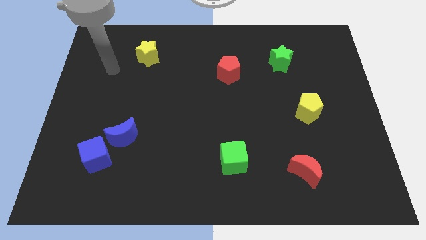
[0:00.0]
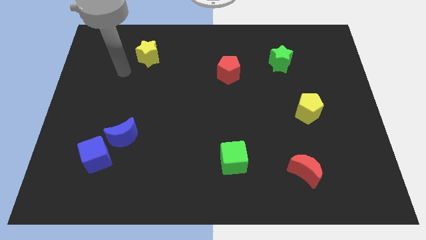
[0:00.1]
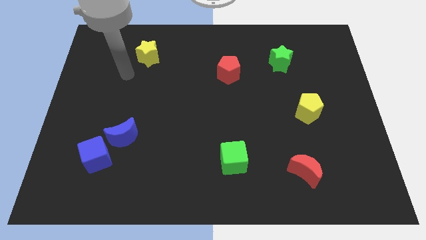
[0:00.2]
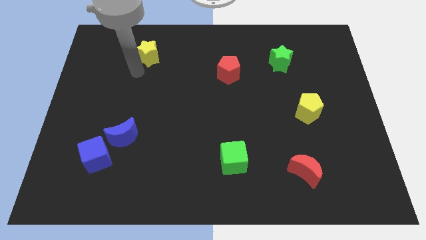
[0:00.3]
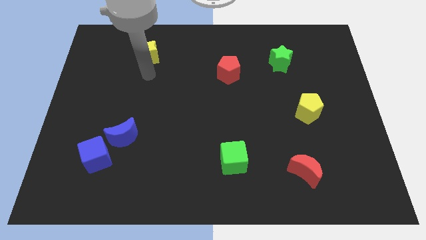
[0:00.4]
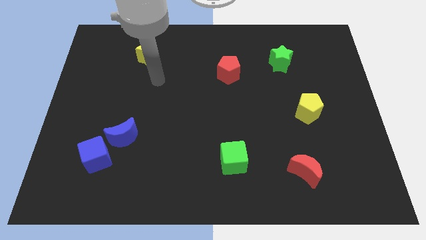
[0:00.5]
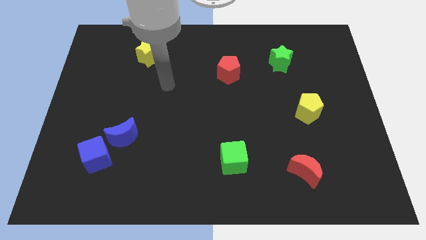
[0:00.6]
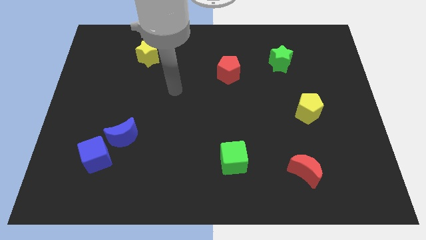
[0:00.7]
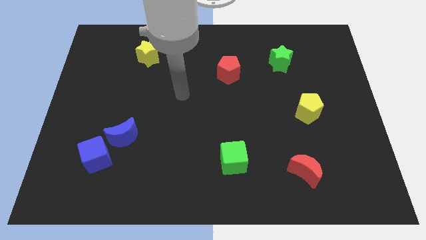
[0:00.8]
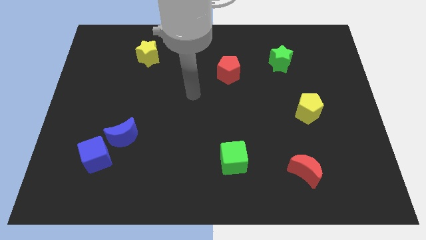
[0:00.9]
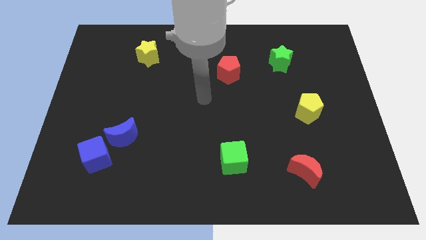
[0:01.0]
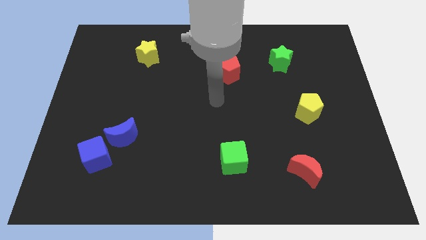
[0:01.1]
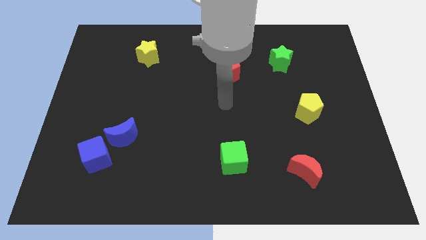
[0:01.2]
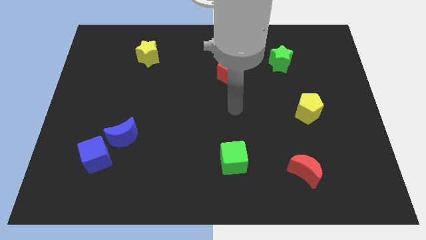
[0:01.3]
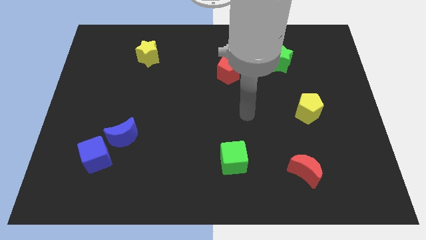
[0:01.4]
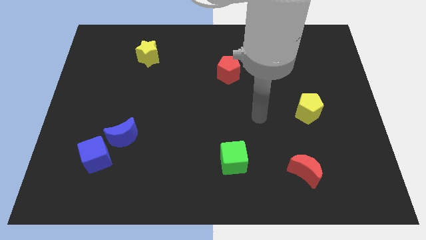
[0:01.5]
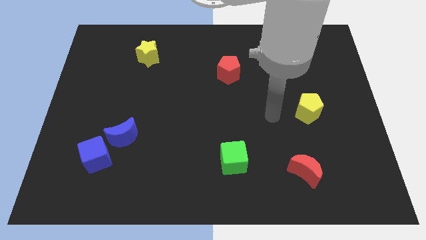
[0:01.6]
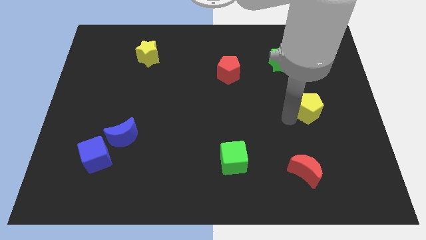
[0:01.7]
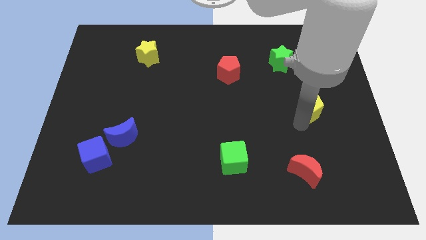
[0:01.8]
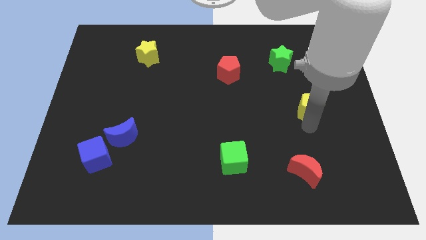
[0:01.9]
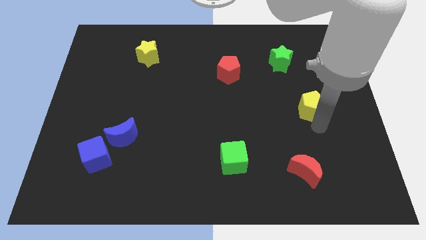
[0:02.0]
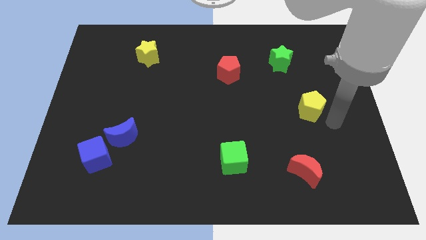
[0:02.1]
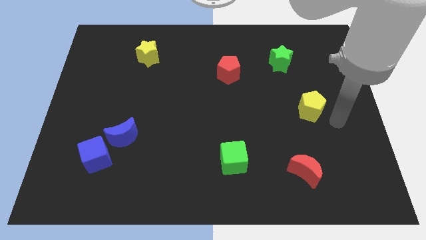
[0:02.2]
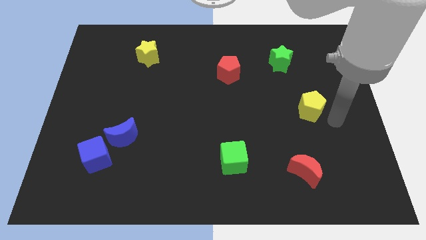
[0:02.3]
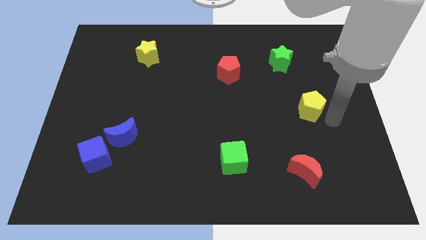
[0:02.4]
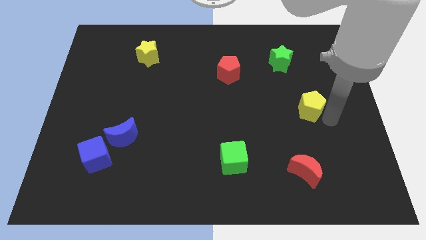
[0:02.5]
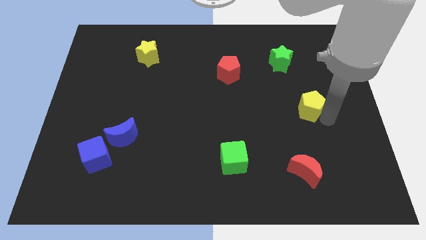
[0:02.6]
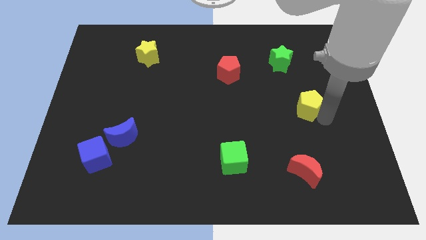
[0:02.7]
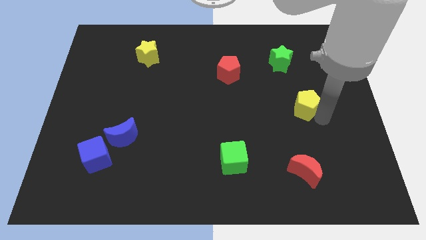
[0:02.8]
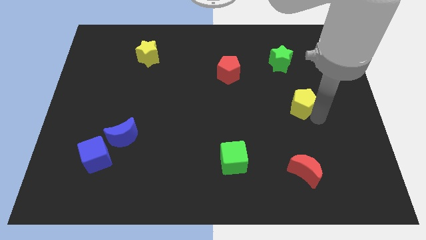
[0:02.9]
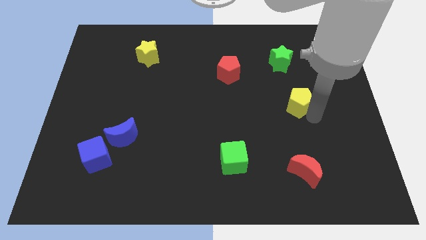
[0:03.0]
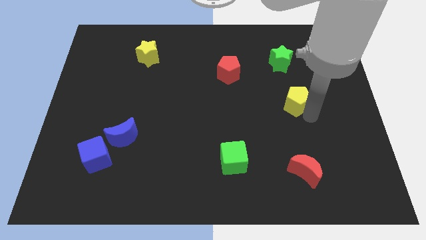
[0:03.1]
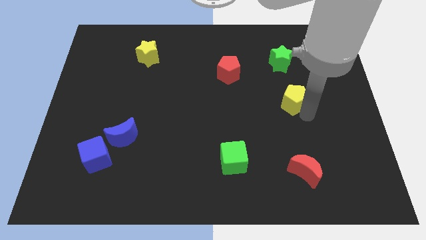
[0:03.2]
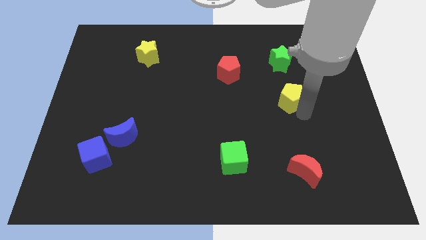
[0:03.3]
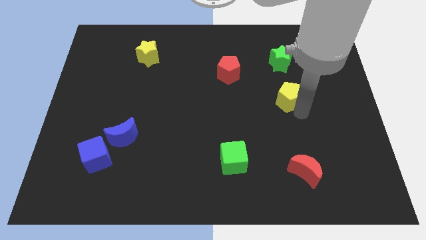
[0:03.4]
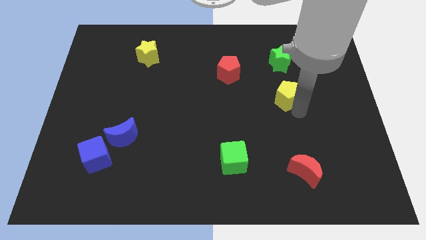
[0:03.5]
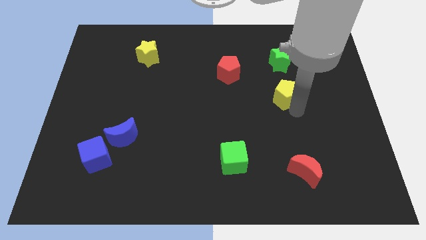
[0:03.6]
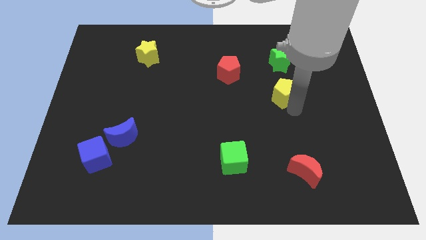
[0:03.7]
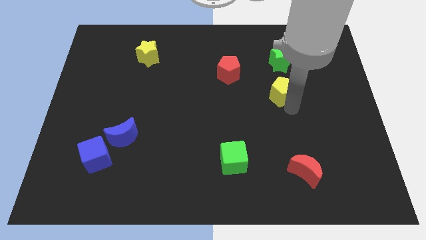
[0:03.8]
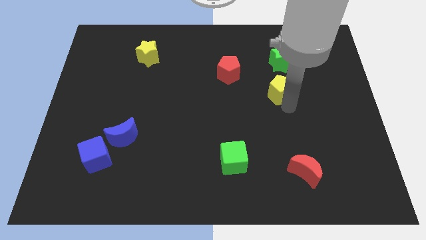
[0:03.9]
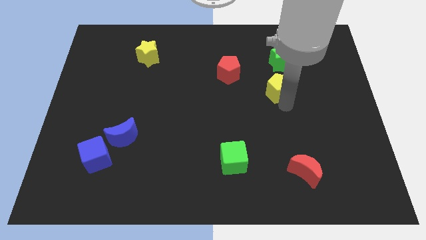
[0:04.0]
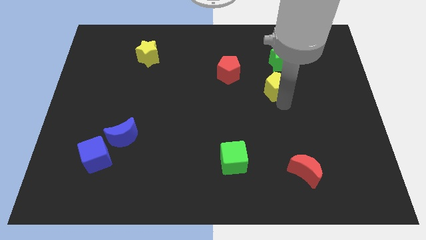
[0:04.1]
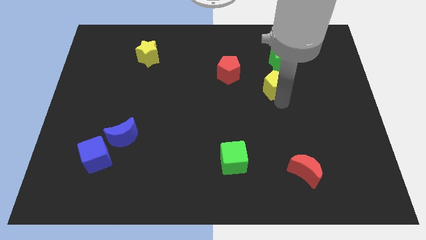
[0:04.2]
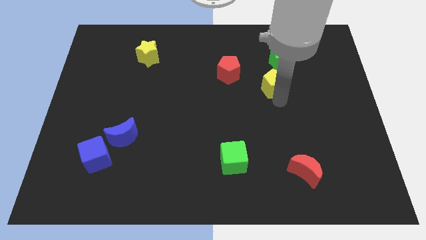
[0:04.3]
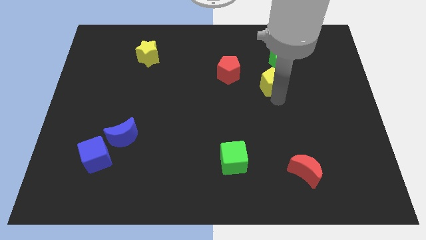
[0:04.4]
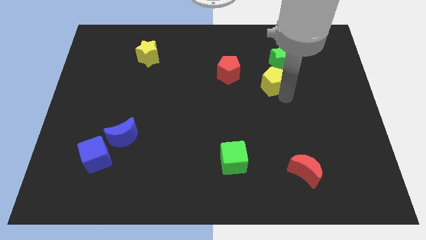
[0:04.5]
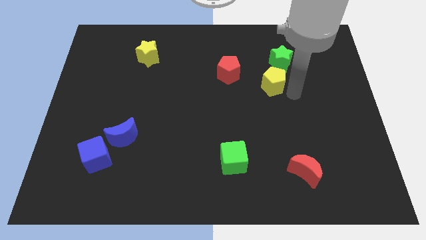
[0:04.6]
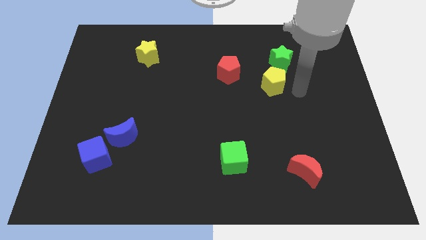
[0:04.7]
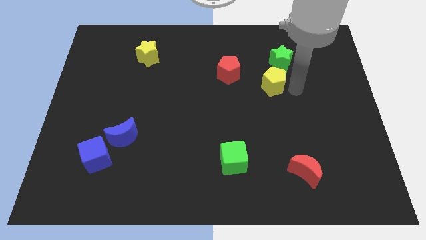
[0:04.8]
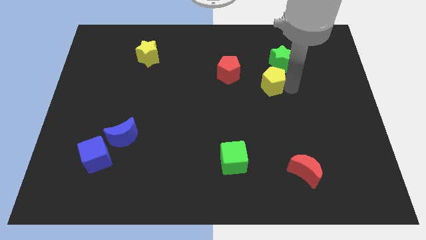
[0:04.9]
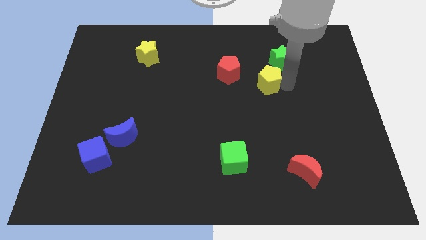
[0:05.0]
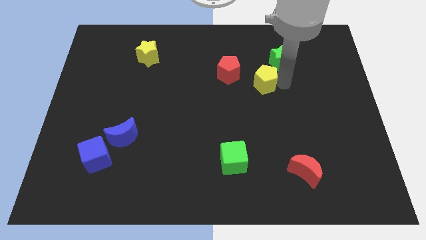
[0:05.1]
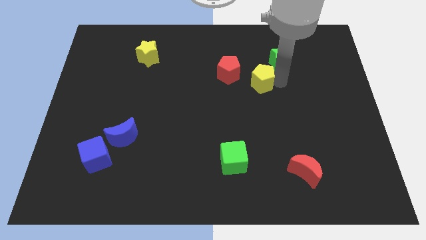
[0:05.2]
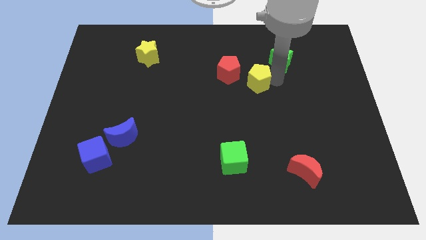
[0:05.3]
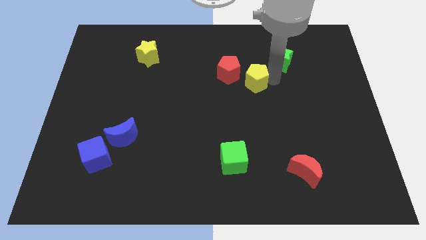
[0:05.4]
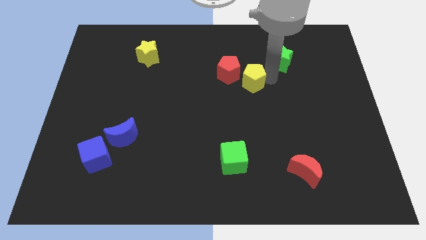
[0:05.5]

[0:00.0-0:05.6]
put the yellow pentagon next to the red pentagon

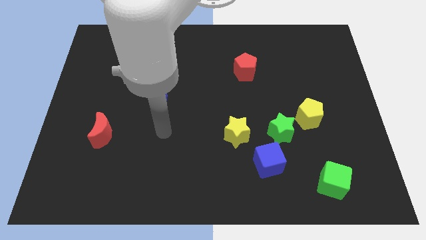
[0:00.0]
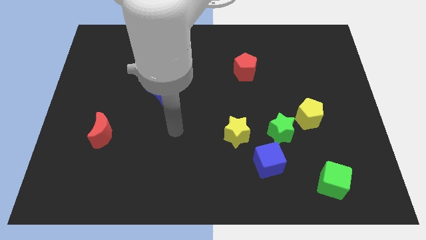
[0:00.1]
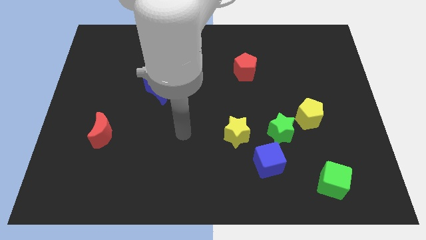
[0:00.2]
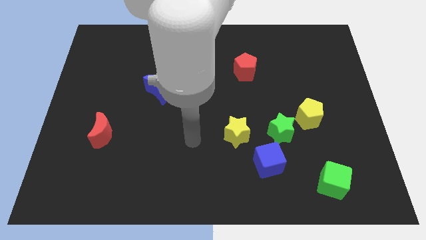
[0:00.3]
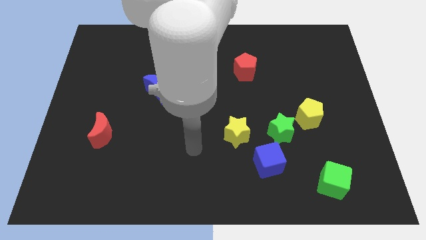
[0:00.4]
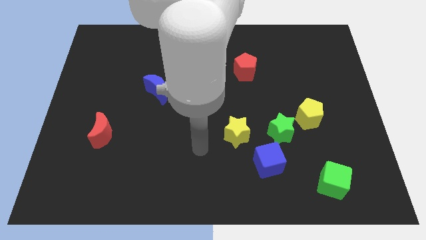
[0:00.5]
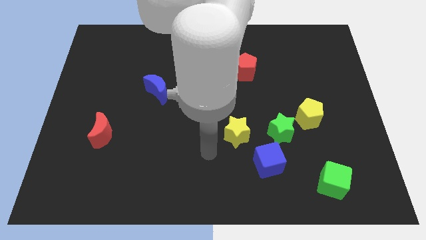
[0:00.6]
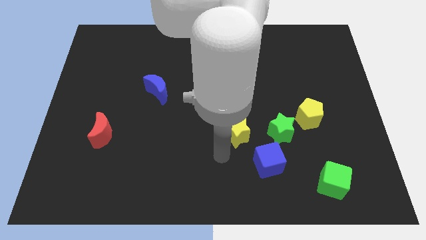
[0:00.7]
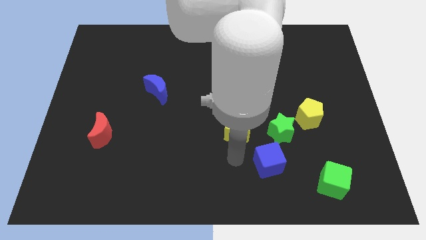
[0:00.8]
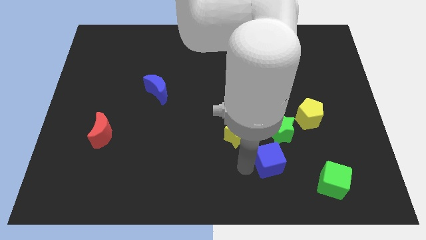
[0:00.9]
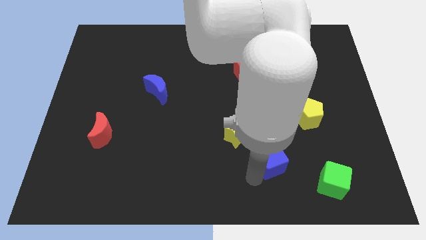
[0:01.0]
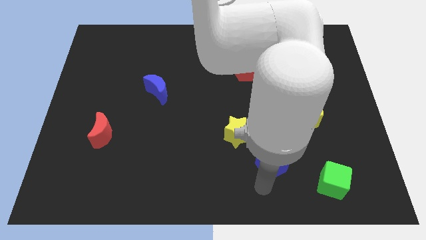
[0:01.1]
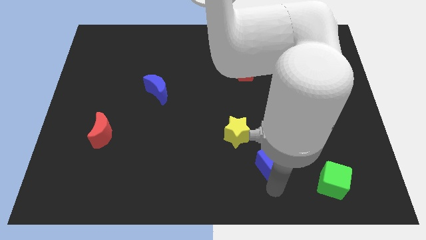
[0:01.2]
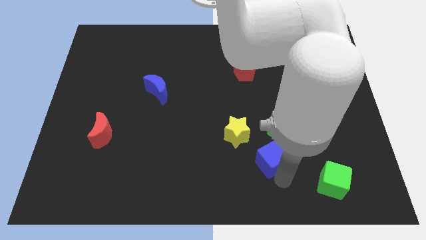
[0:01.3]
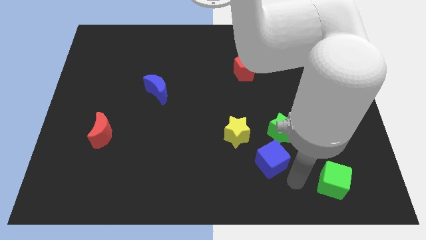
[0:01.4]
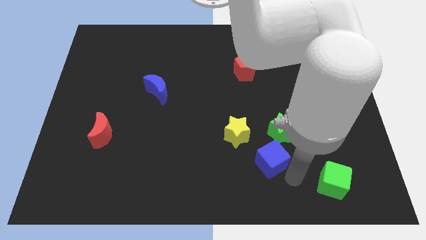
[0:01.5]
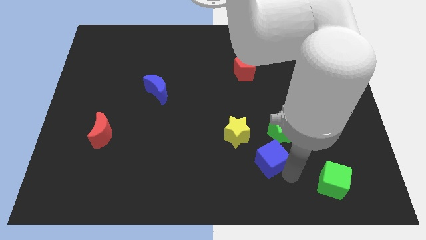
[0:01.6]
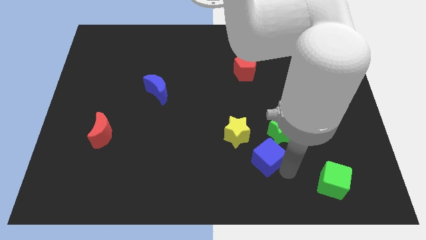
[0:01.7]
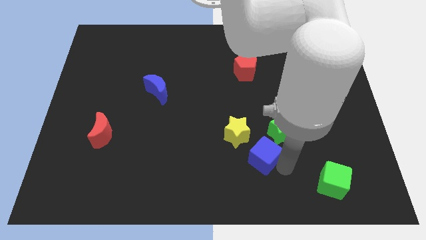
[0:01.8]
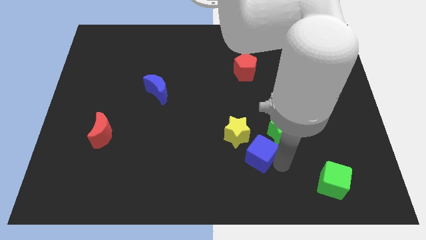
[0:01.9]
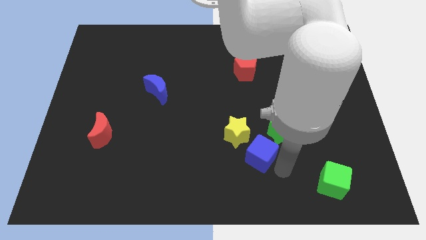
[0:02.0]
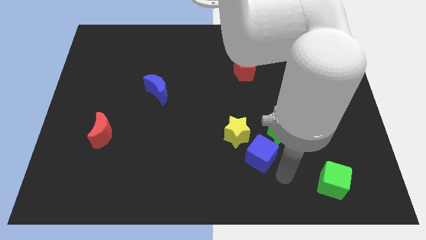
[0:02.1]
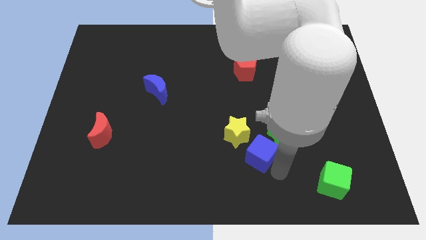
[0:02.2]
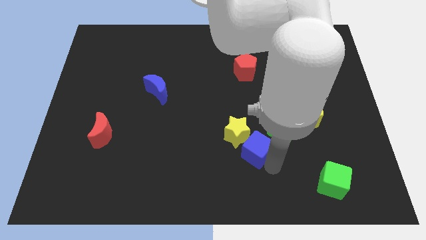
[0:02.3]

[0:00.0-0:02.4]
move the blue cube to the yellow star
